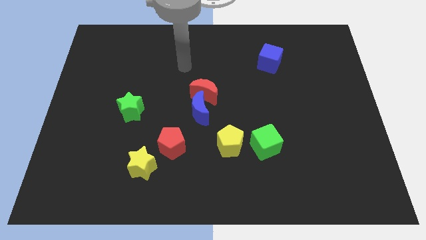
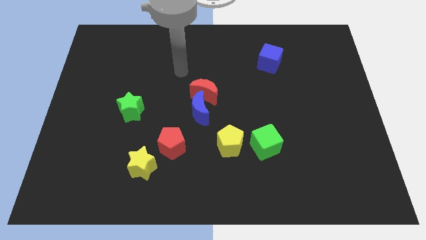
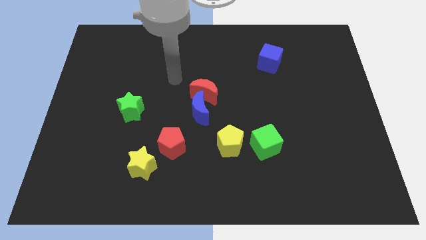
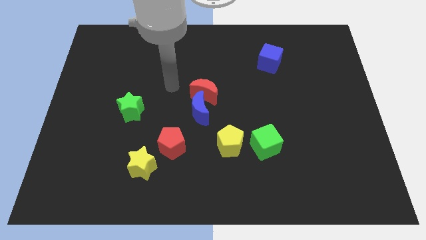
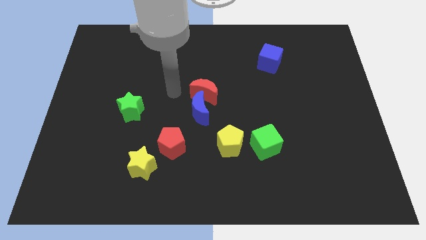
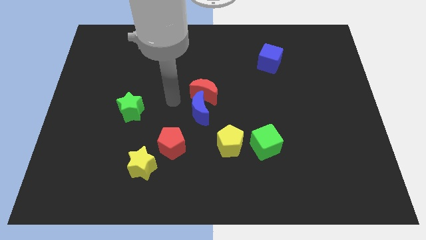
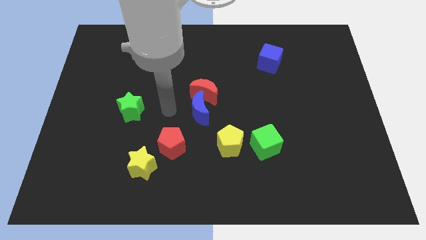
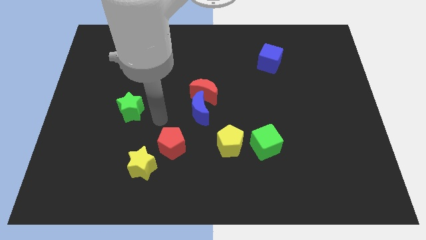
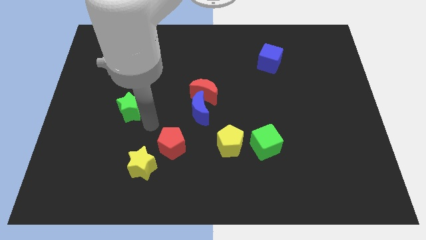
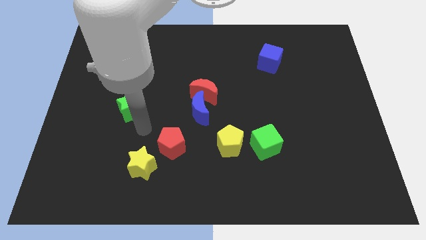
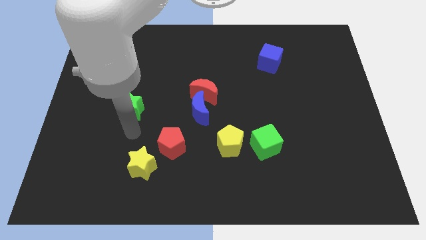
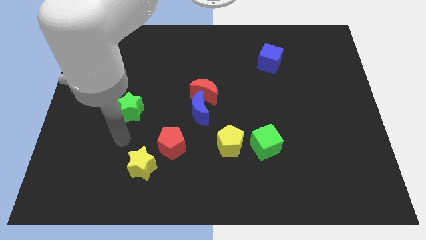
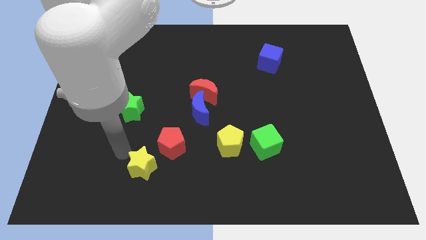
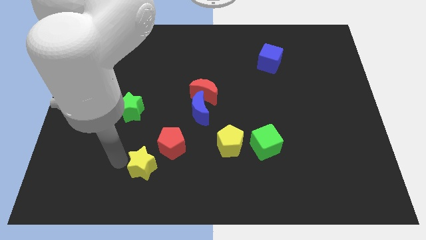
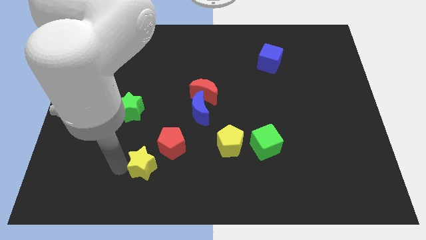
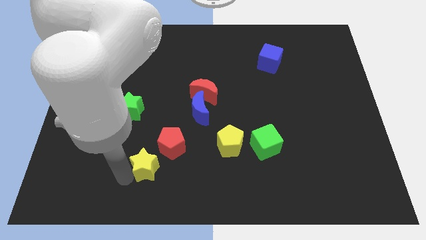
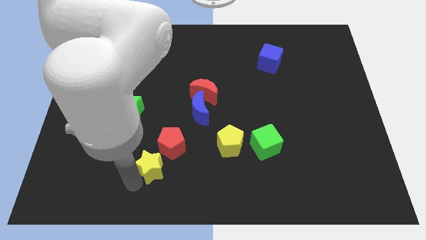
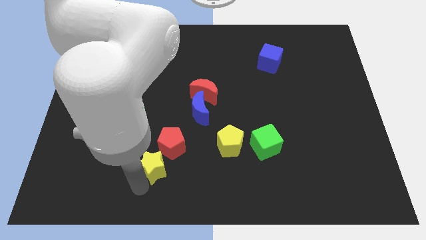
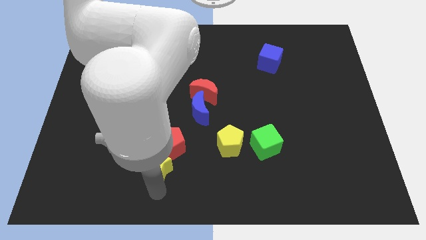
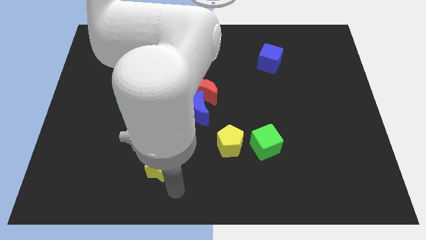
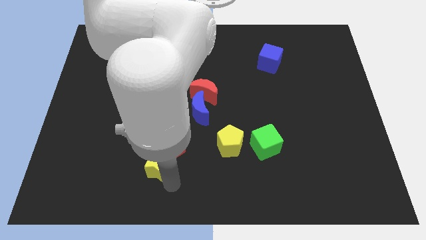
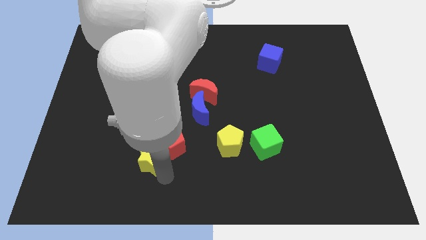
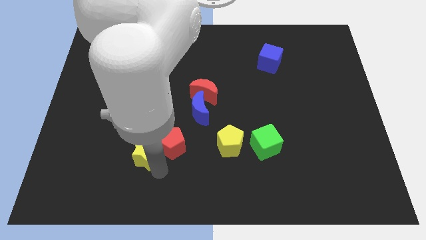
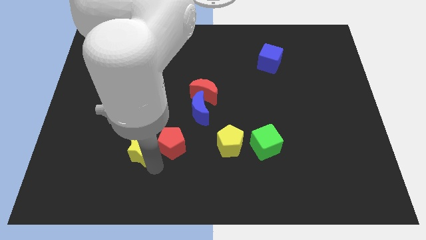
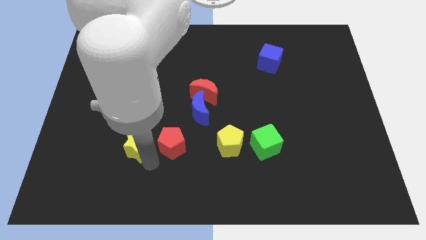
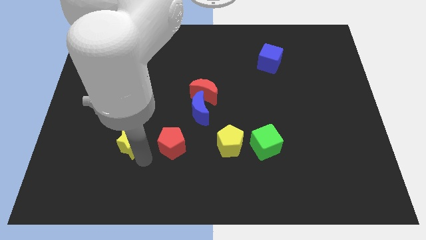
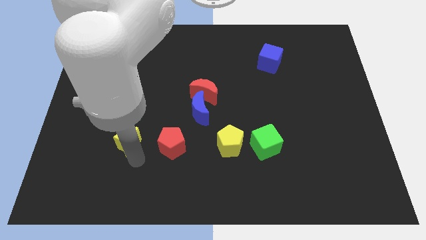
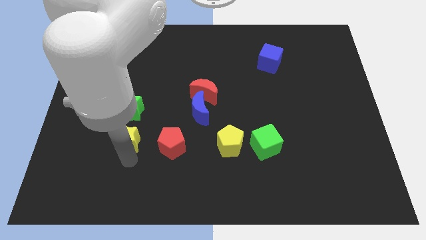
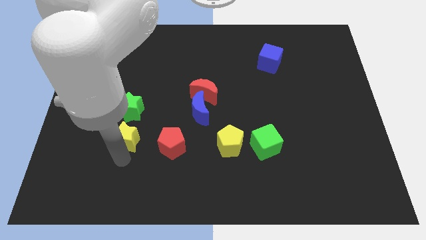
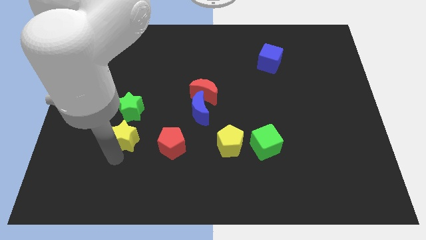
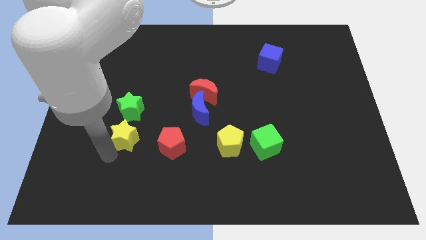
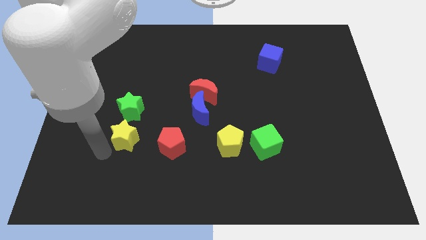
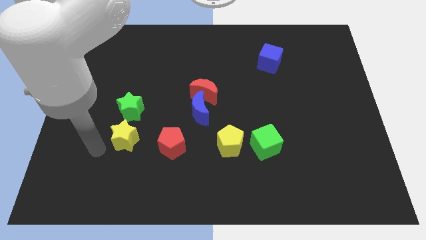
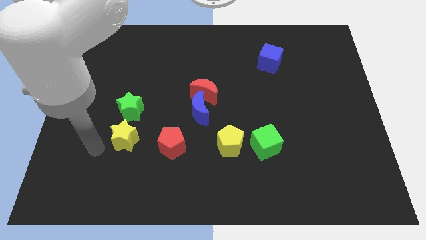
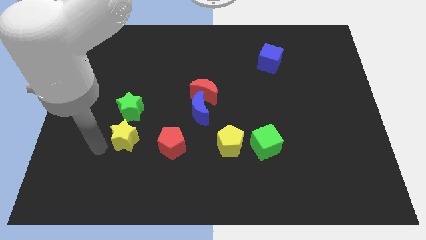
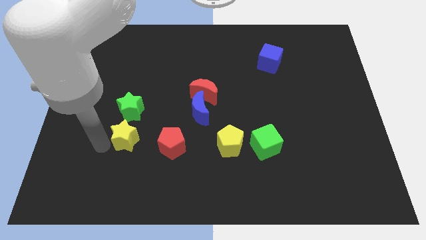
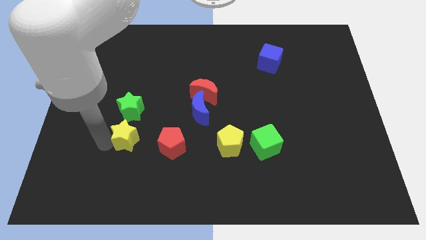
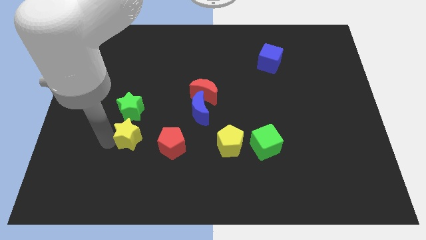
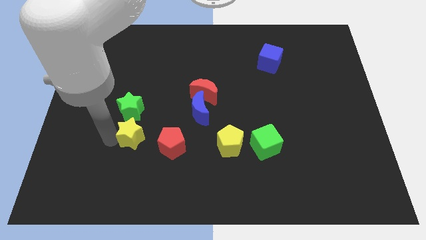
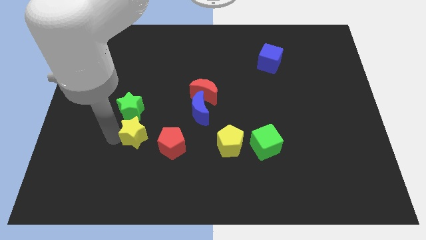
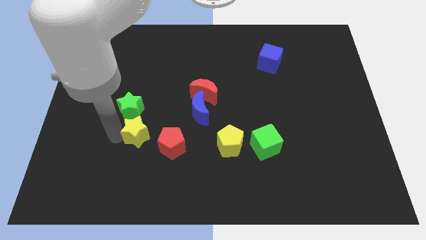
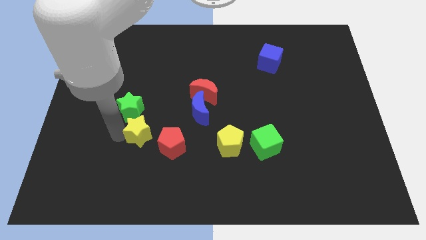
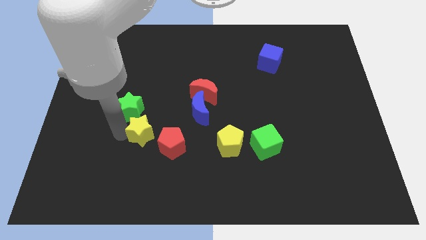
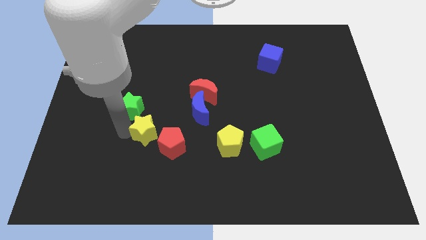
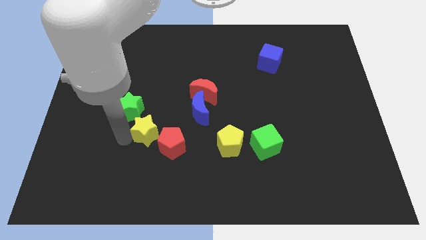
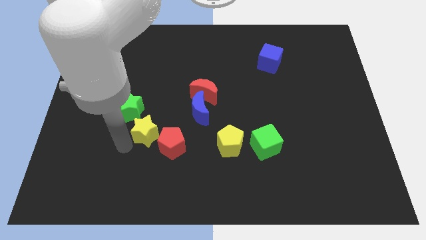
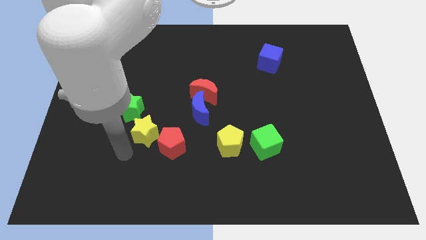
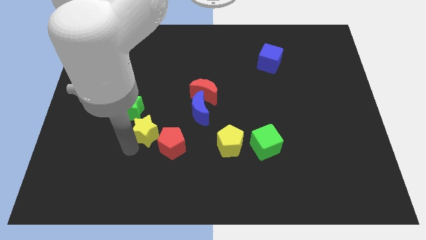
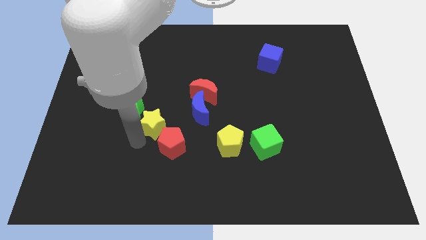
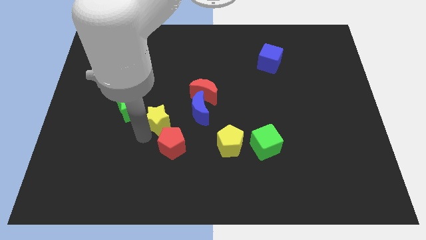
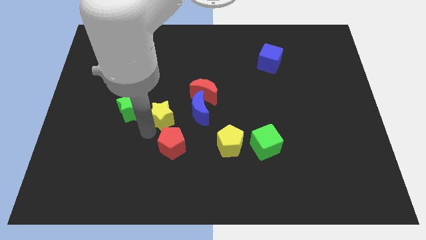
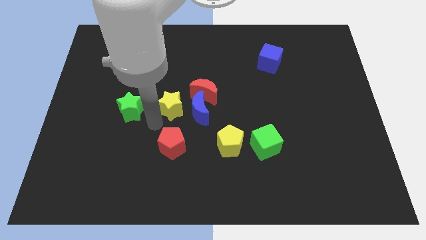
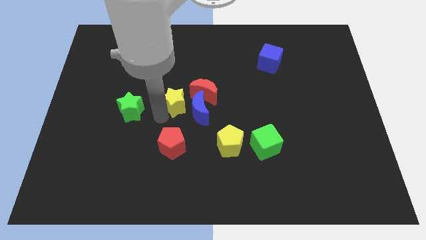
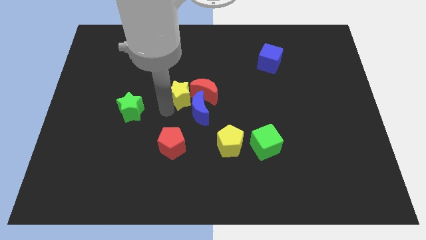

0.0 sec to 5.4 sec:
move the yellow star to the red moon

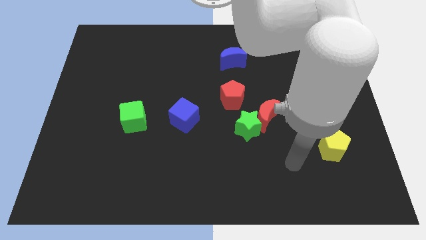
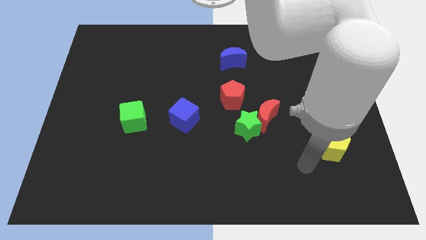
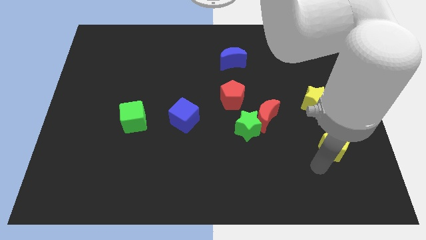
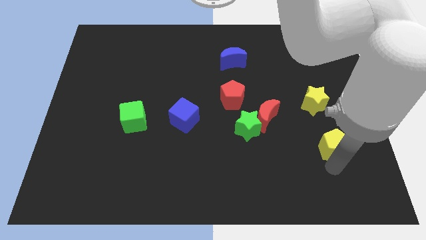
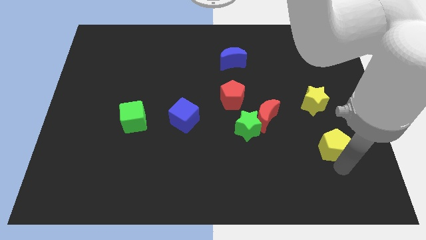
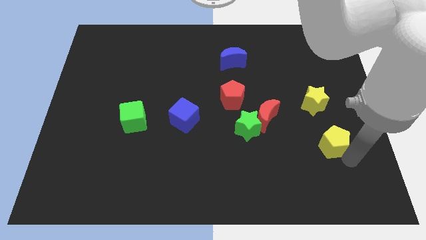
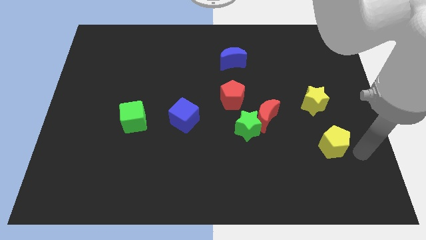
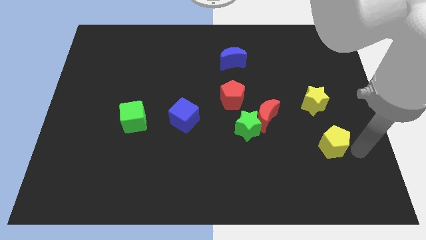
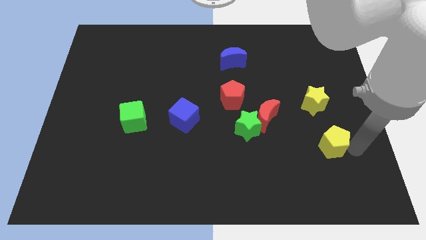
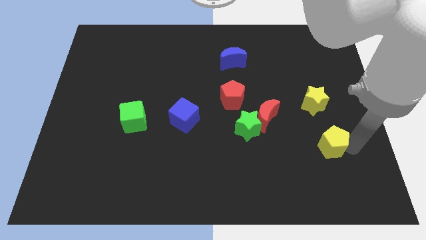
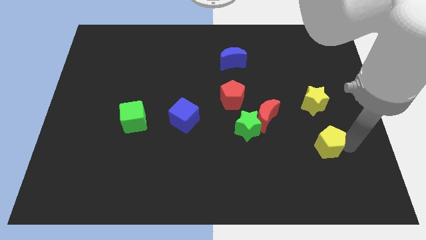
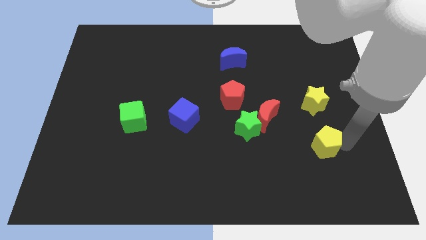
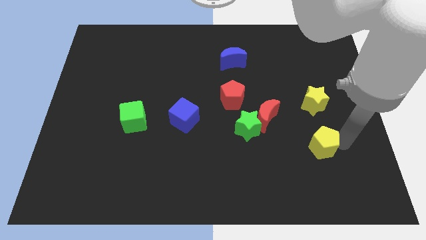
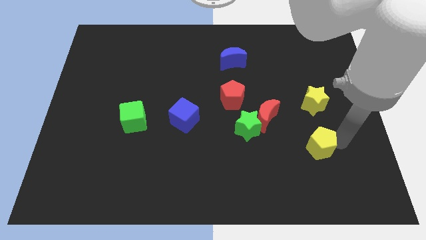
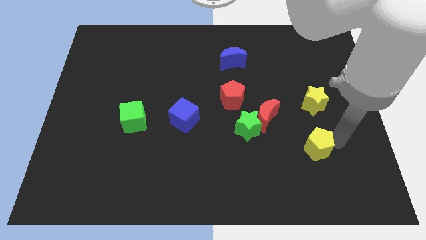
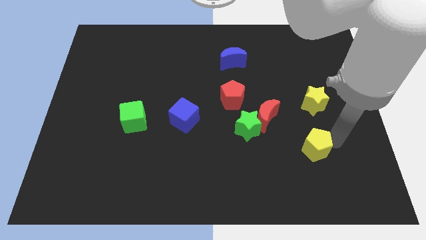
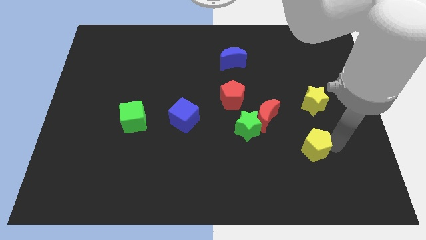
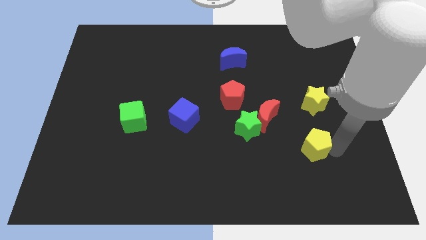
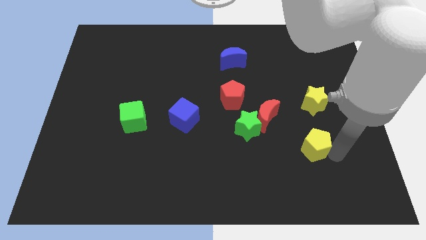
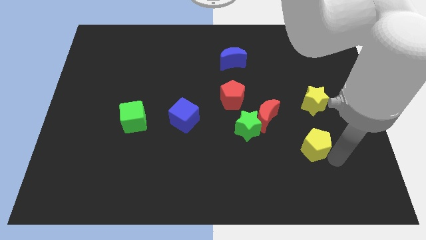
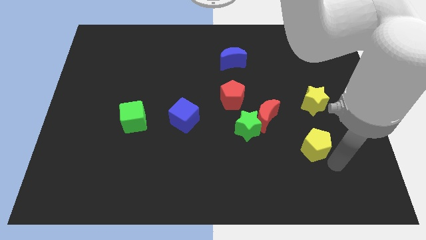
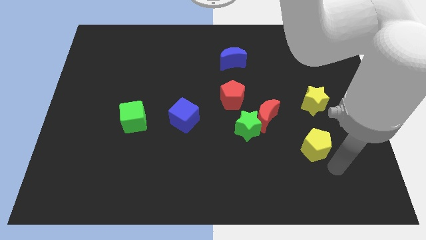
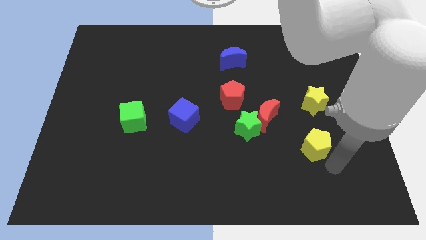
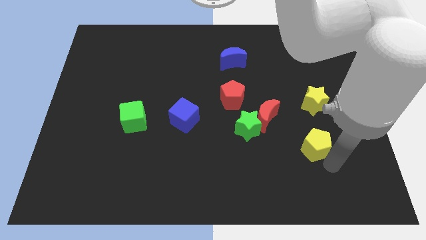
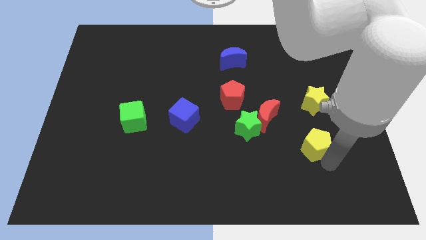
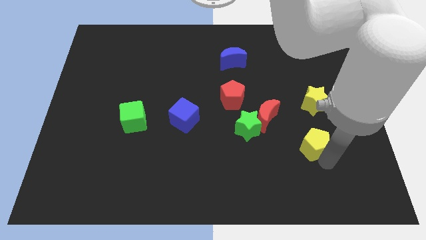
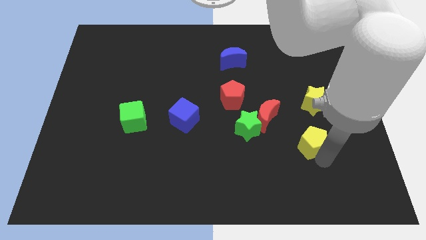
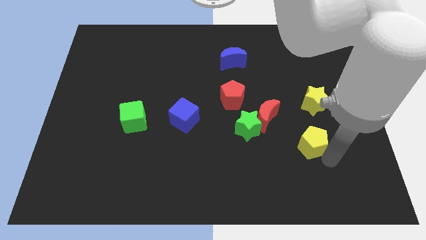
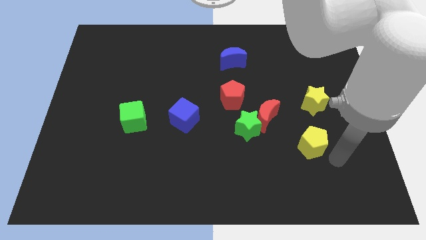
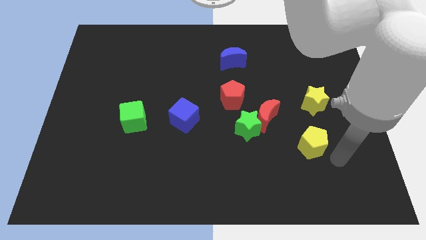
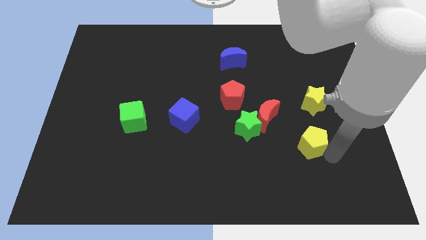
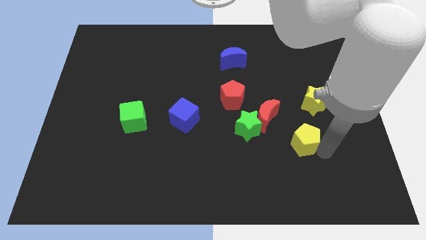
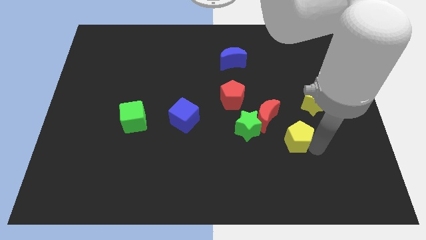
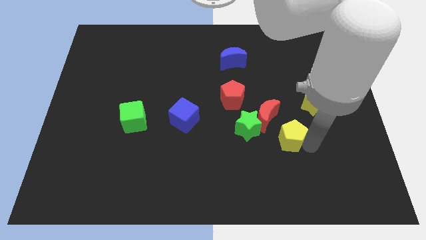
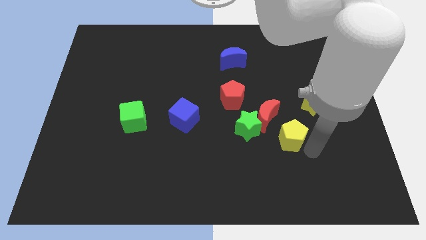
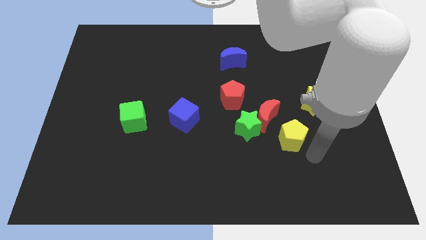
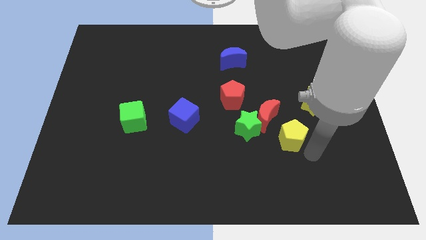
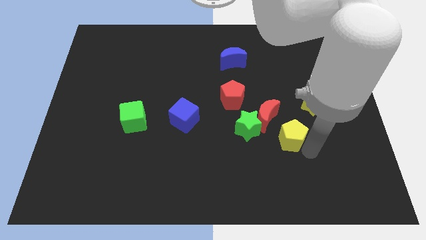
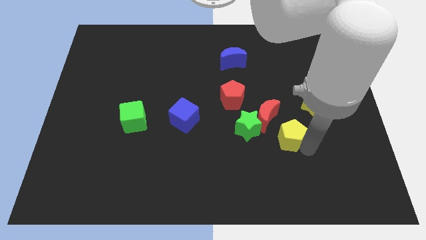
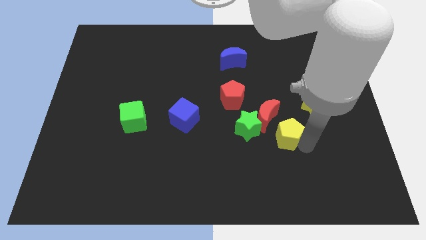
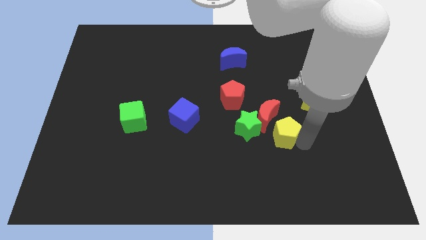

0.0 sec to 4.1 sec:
put the yellow pentagon close to the red moon
